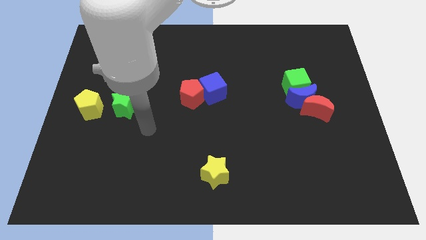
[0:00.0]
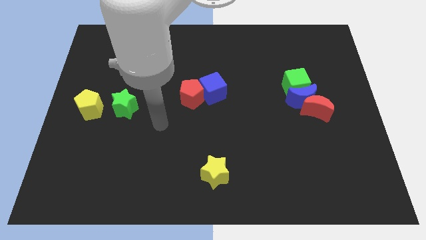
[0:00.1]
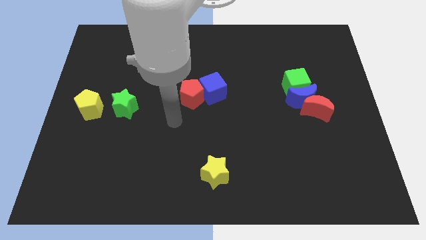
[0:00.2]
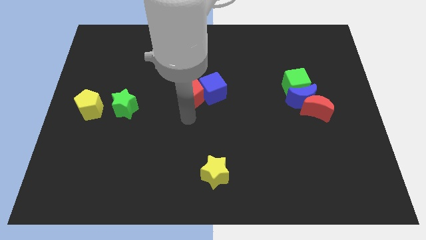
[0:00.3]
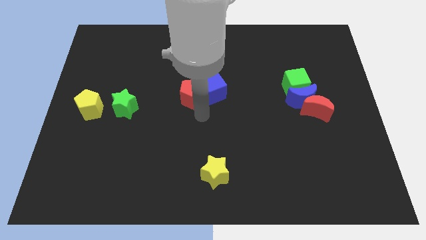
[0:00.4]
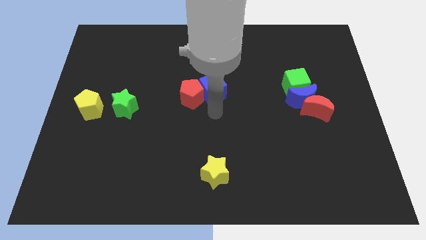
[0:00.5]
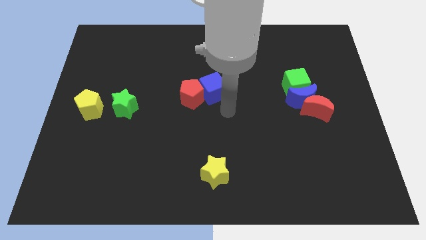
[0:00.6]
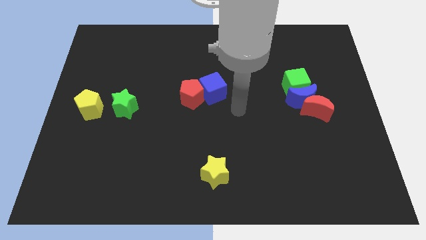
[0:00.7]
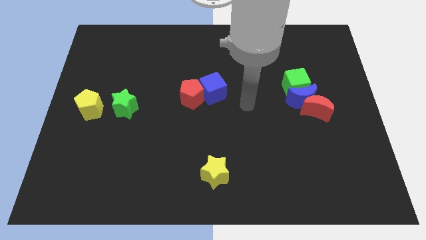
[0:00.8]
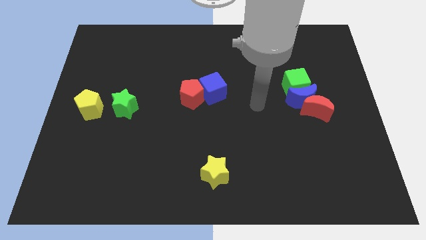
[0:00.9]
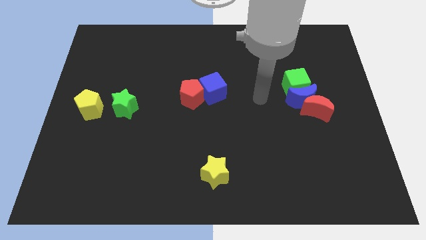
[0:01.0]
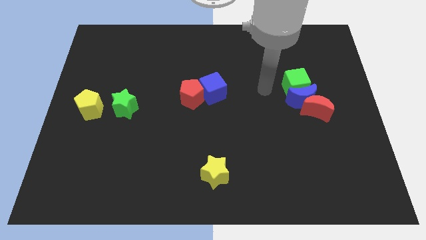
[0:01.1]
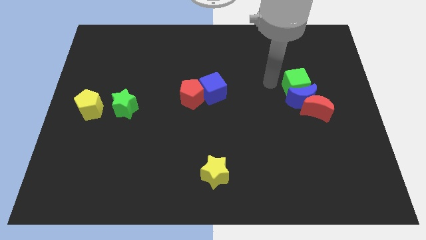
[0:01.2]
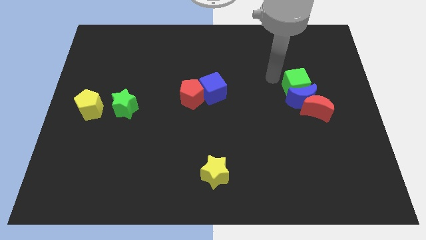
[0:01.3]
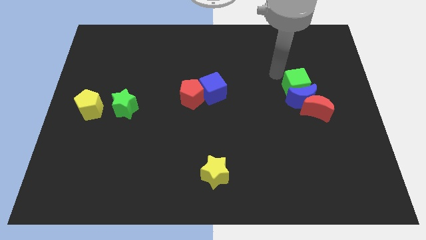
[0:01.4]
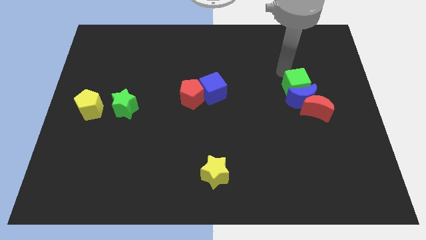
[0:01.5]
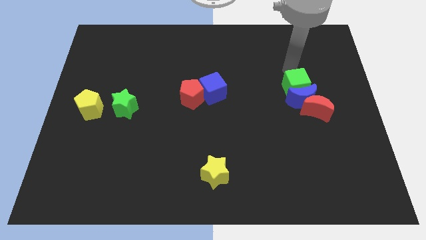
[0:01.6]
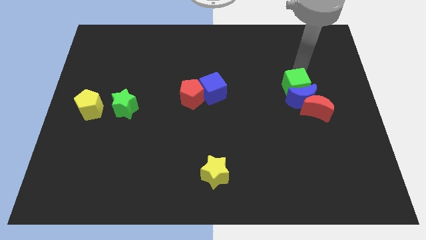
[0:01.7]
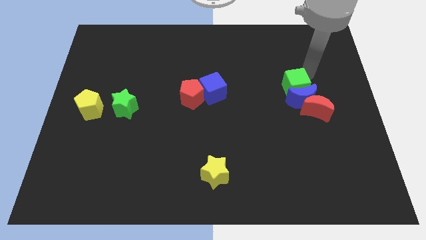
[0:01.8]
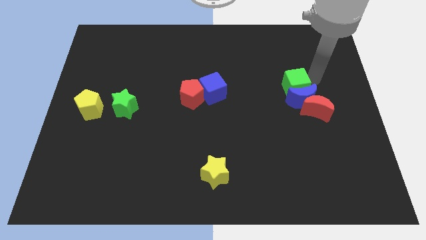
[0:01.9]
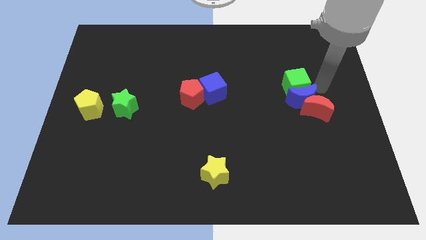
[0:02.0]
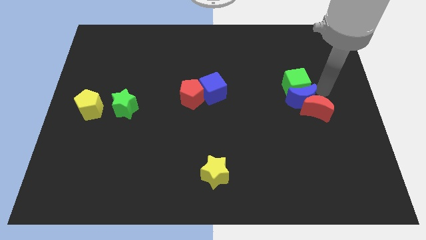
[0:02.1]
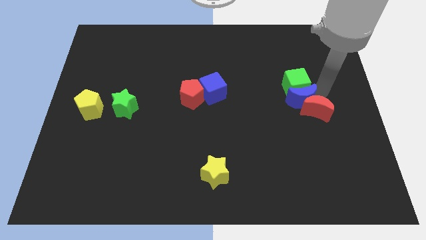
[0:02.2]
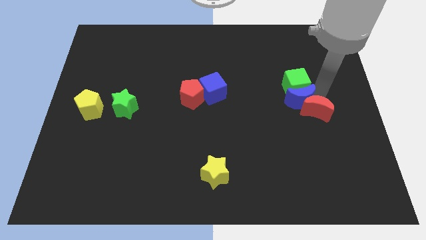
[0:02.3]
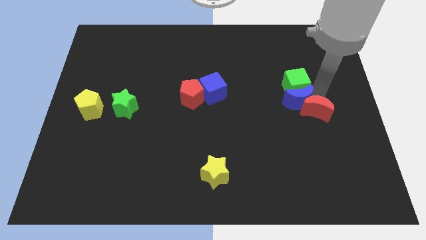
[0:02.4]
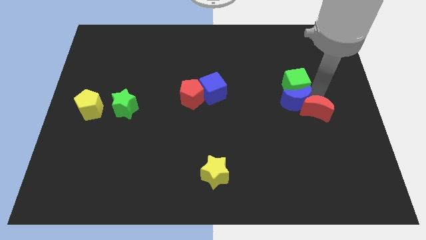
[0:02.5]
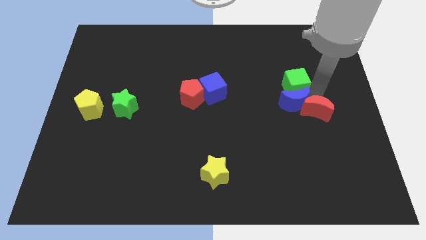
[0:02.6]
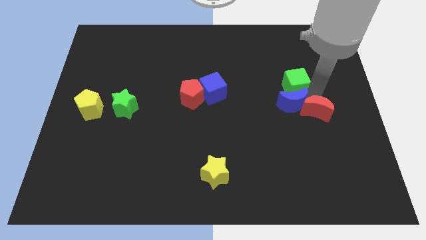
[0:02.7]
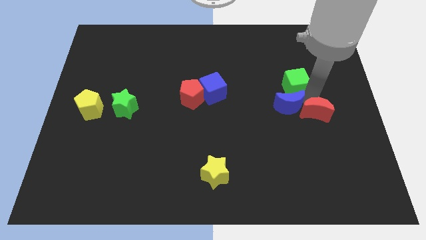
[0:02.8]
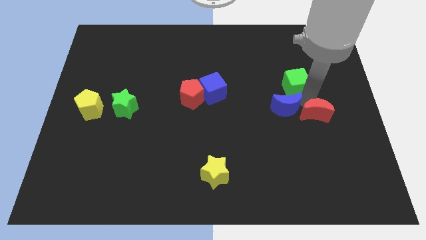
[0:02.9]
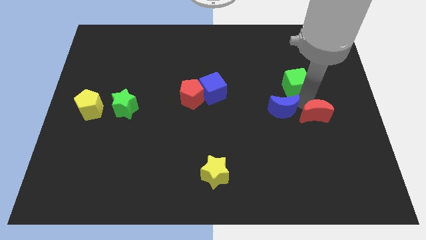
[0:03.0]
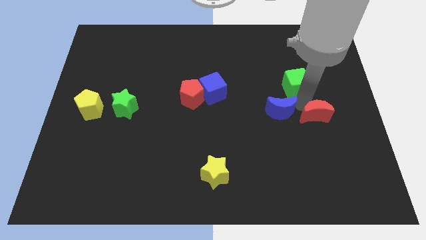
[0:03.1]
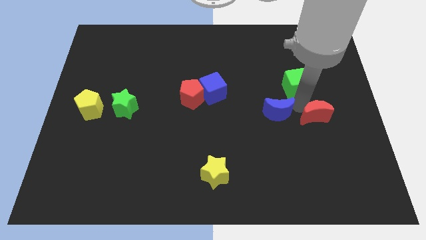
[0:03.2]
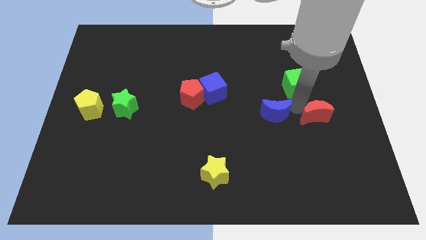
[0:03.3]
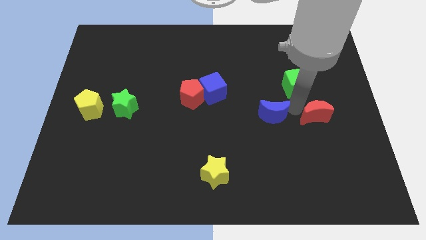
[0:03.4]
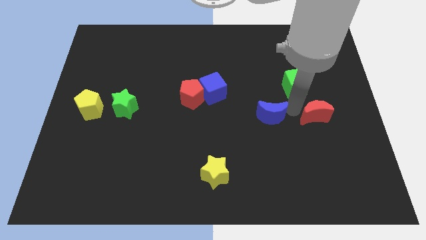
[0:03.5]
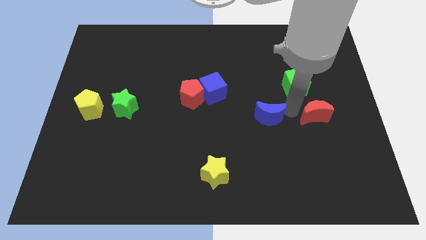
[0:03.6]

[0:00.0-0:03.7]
separate the blue moon from the red moon and green cube

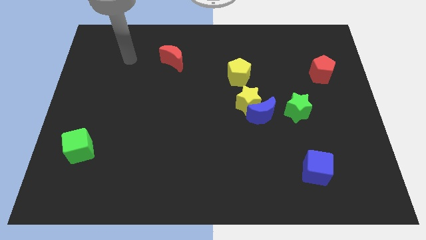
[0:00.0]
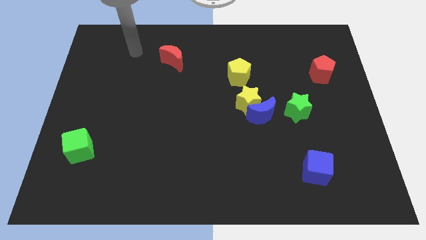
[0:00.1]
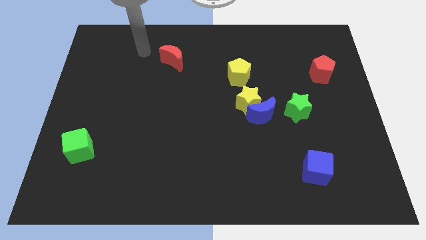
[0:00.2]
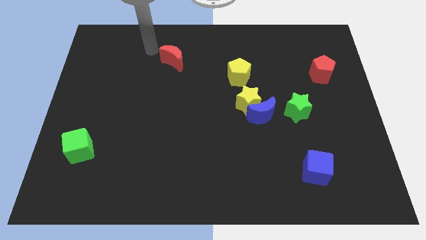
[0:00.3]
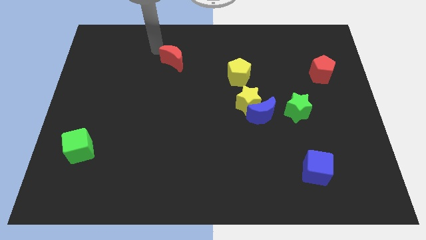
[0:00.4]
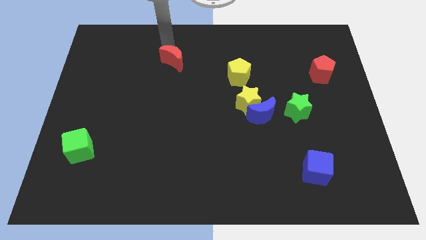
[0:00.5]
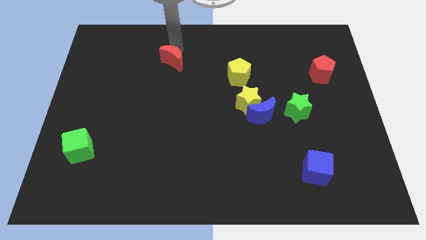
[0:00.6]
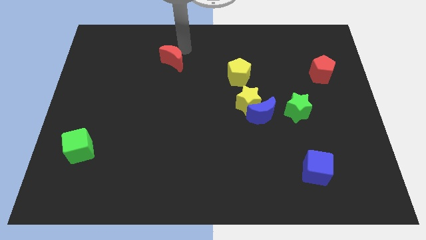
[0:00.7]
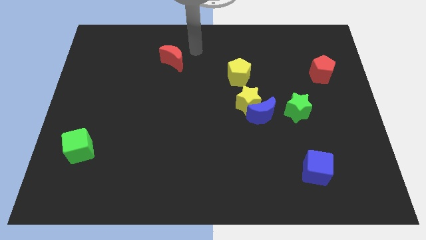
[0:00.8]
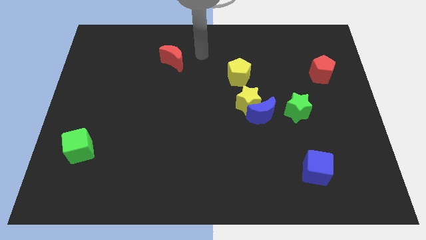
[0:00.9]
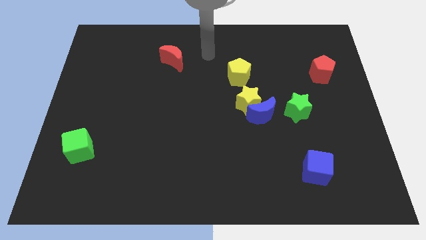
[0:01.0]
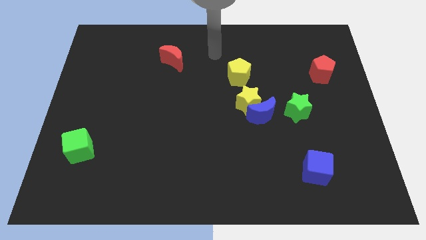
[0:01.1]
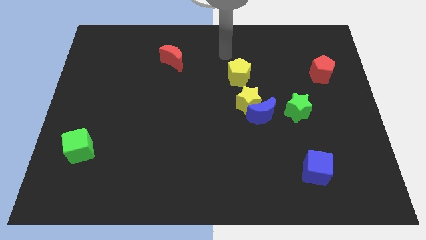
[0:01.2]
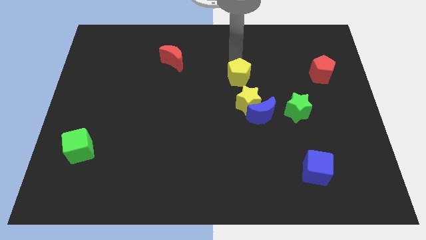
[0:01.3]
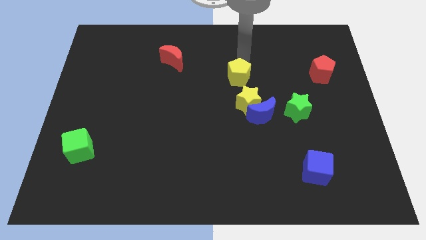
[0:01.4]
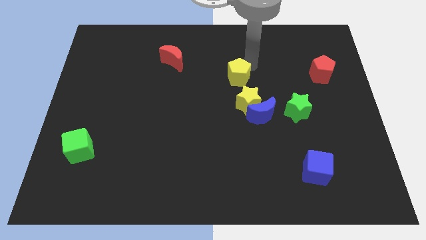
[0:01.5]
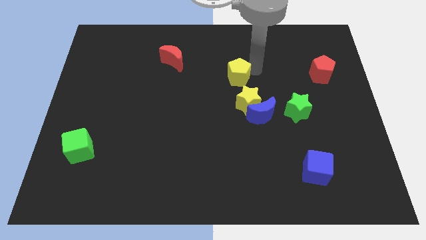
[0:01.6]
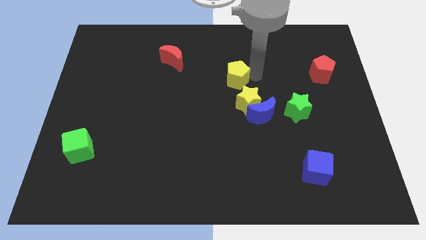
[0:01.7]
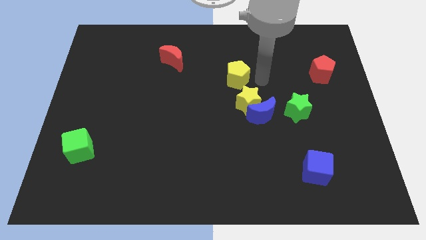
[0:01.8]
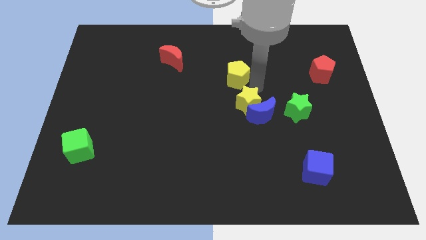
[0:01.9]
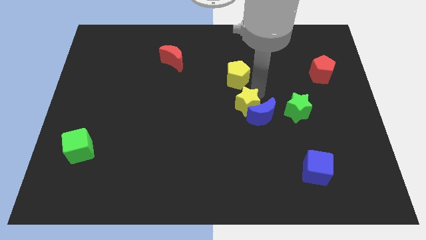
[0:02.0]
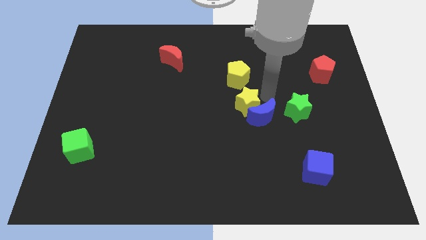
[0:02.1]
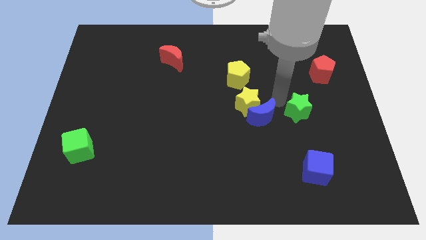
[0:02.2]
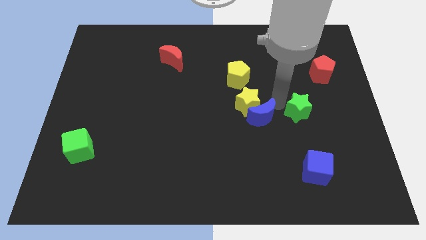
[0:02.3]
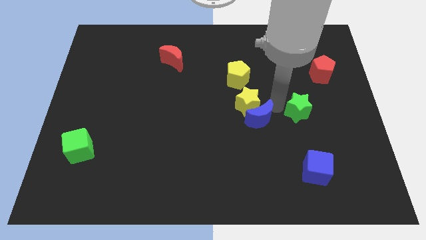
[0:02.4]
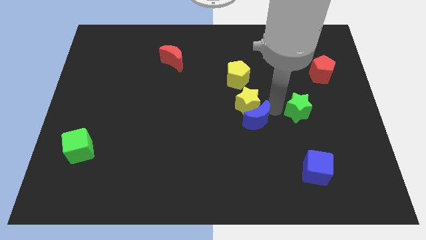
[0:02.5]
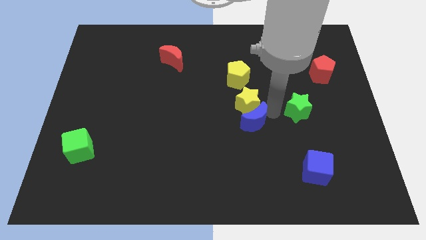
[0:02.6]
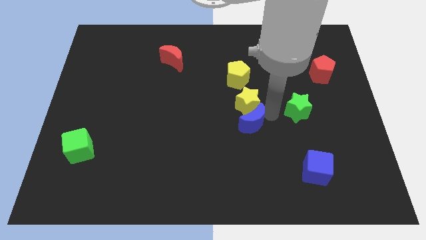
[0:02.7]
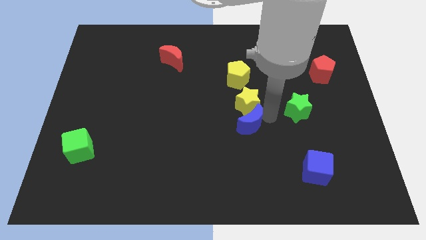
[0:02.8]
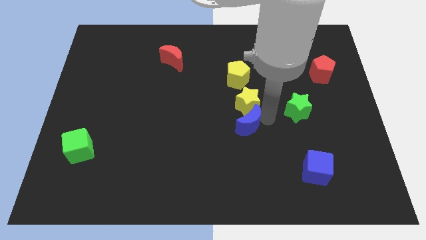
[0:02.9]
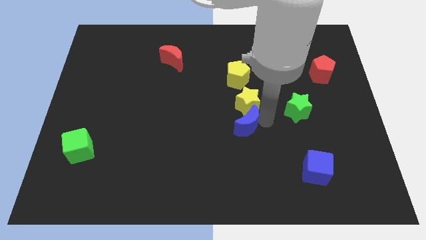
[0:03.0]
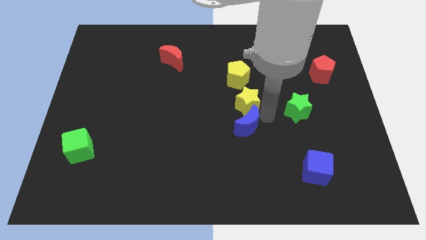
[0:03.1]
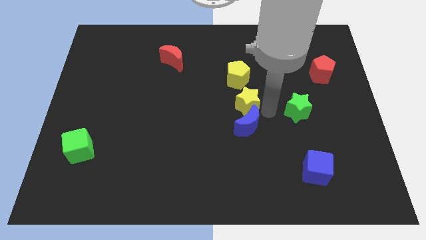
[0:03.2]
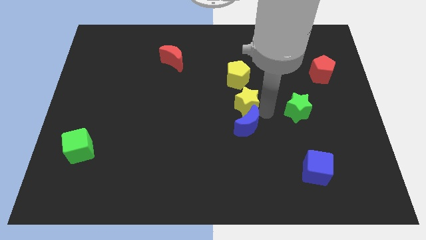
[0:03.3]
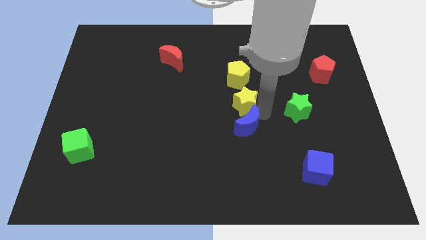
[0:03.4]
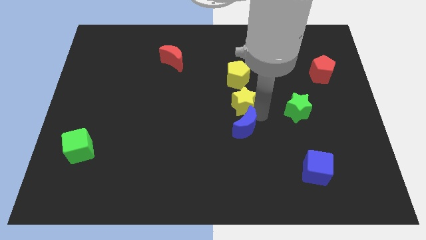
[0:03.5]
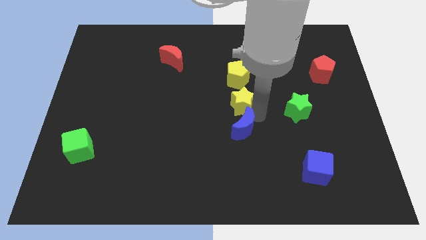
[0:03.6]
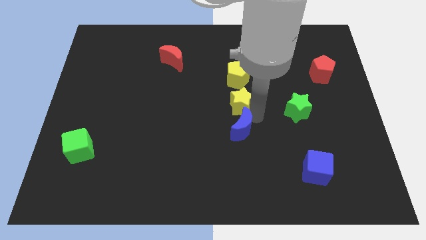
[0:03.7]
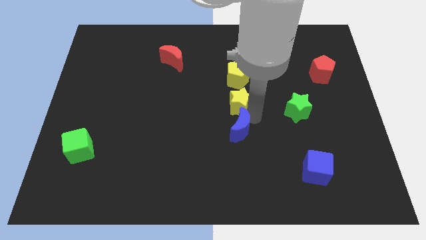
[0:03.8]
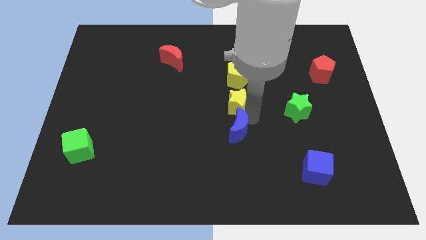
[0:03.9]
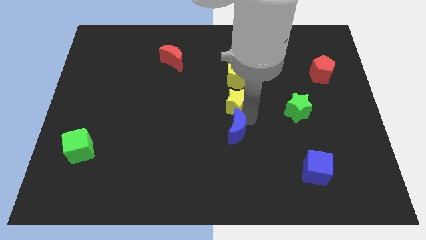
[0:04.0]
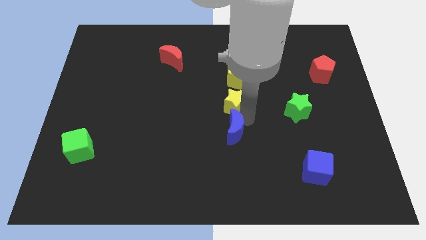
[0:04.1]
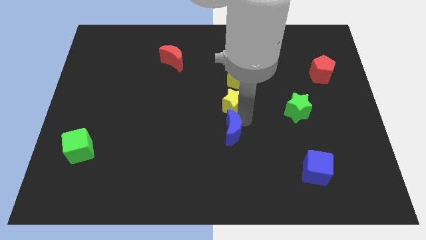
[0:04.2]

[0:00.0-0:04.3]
separate the blue moon from the yellow star and green star

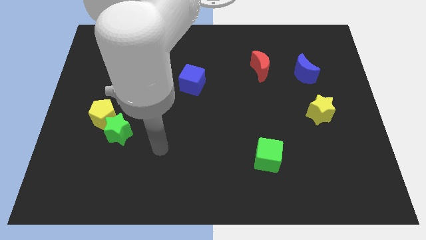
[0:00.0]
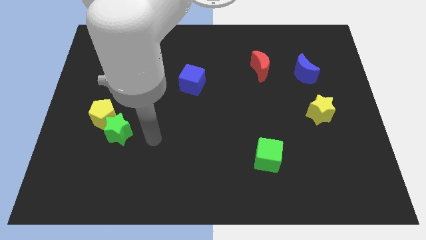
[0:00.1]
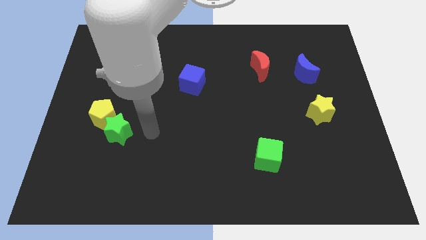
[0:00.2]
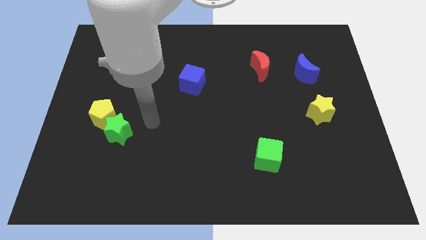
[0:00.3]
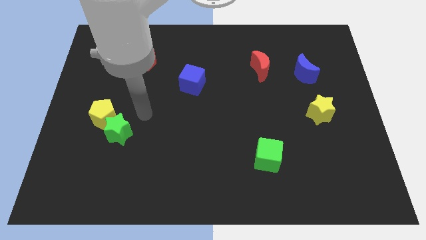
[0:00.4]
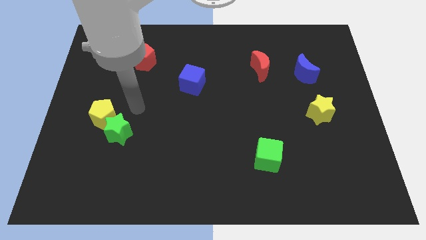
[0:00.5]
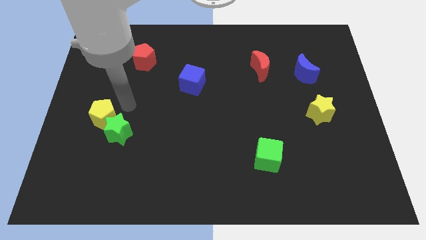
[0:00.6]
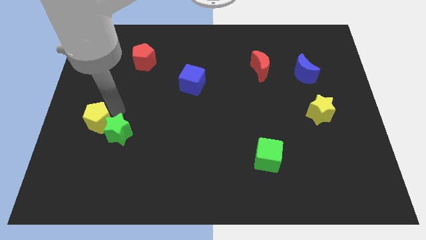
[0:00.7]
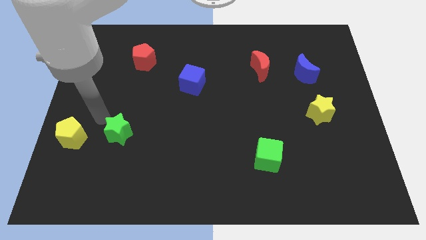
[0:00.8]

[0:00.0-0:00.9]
pull the green star apart from the yellow pentagon

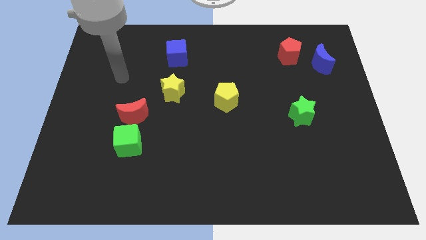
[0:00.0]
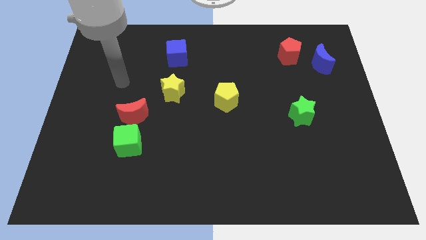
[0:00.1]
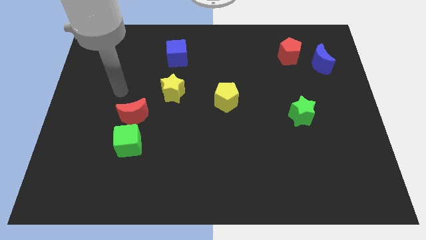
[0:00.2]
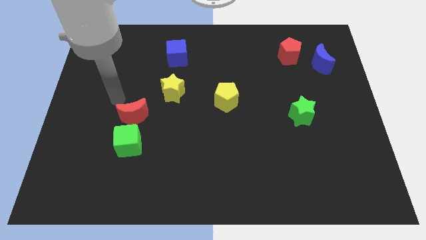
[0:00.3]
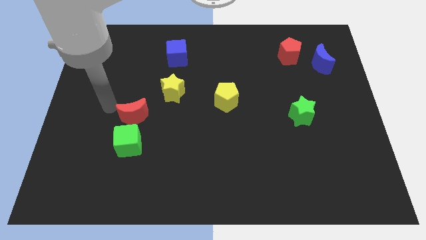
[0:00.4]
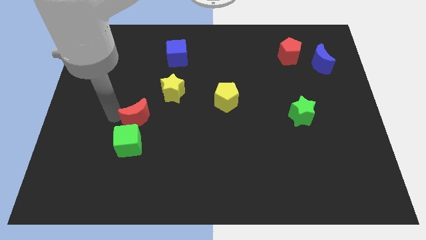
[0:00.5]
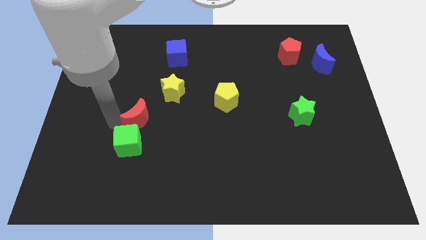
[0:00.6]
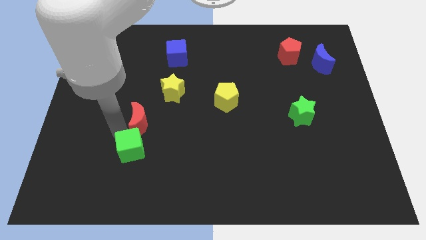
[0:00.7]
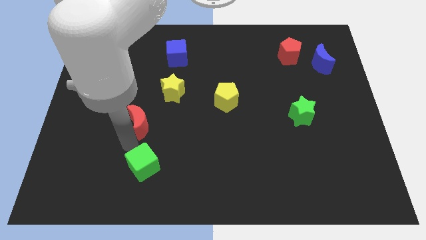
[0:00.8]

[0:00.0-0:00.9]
pull the red moon apart from the green cube
